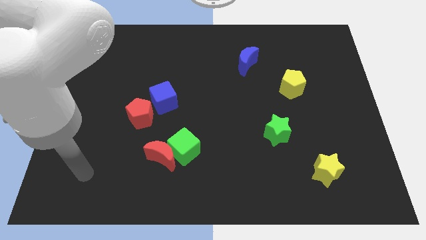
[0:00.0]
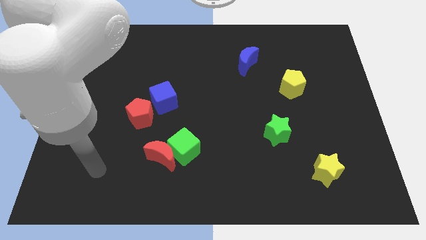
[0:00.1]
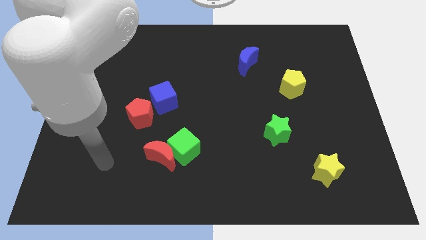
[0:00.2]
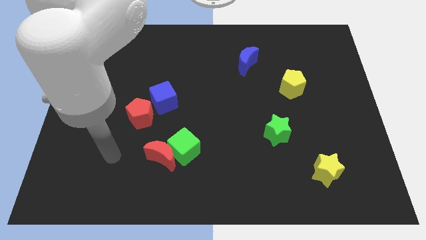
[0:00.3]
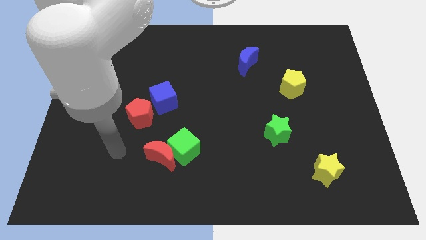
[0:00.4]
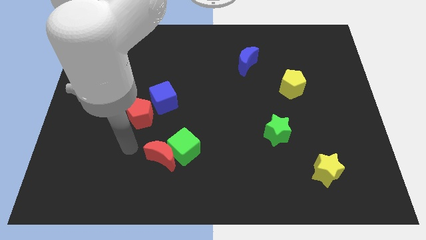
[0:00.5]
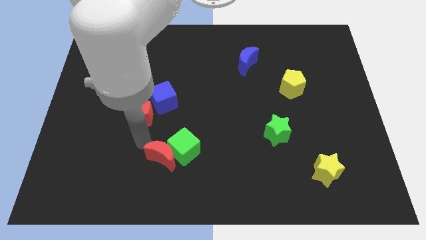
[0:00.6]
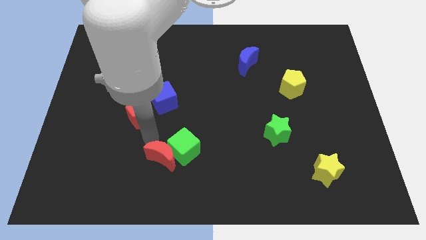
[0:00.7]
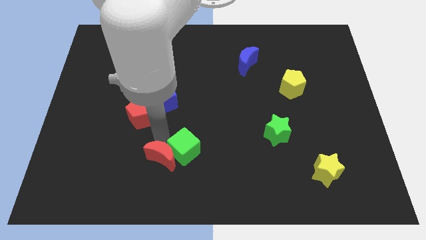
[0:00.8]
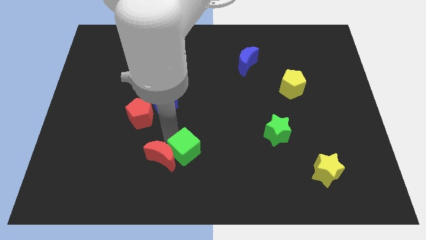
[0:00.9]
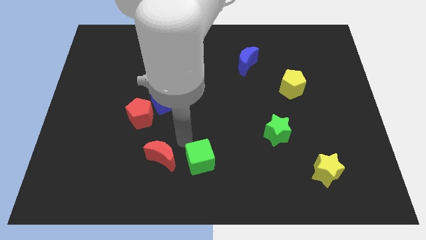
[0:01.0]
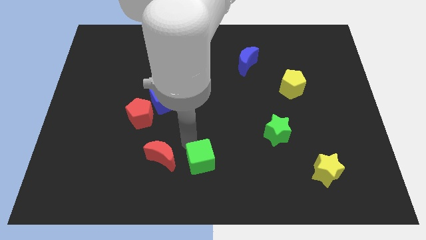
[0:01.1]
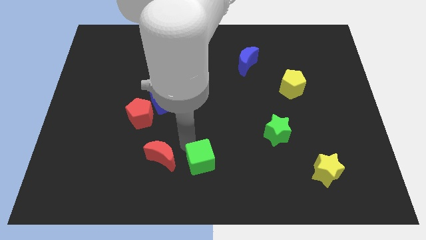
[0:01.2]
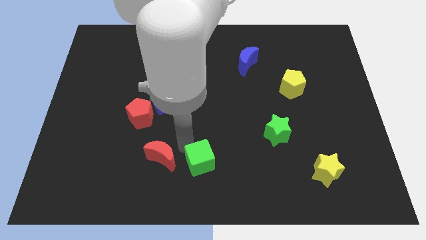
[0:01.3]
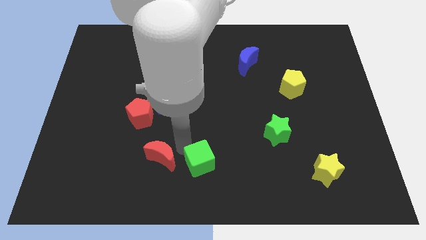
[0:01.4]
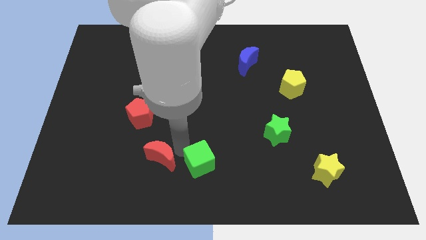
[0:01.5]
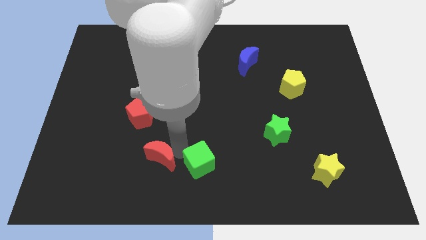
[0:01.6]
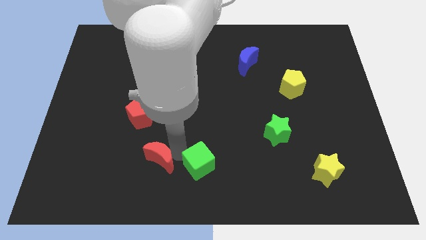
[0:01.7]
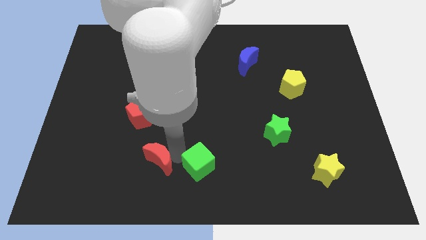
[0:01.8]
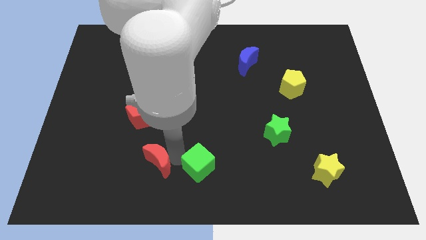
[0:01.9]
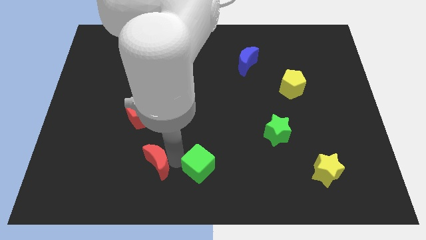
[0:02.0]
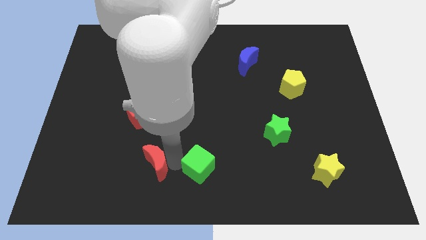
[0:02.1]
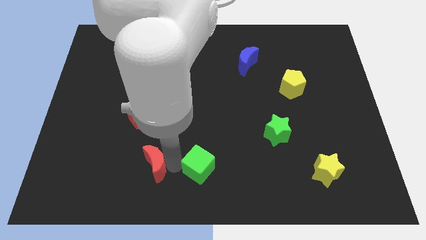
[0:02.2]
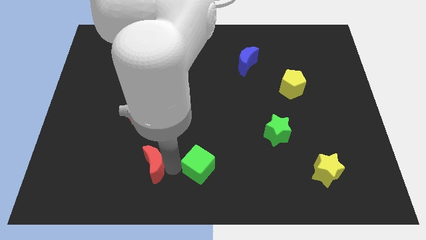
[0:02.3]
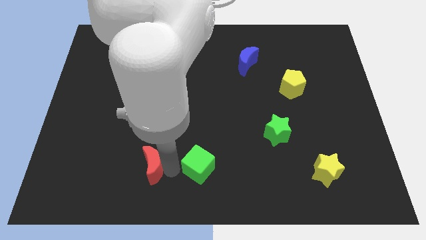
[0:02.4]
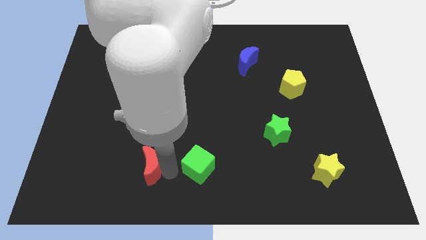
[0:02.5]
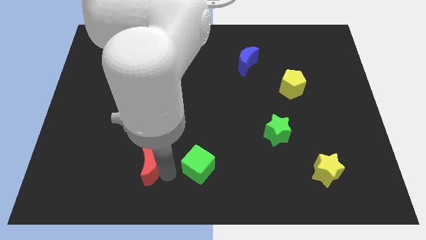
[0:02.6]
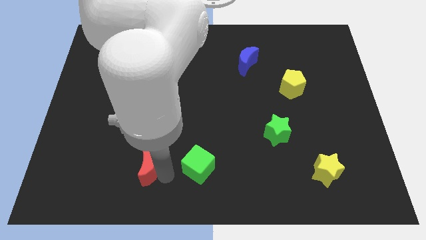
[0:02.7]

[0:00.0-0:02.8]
move the red moon away from the green cube

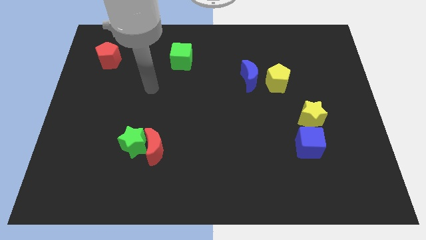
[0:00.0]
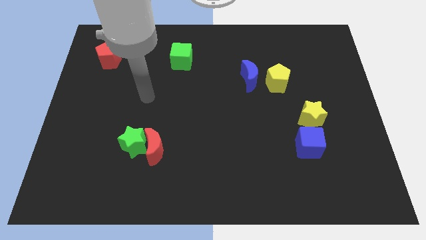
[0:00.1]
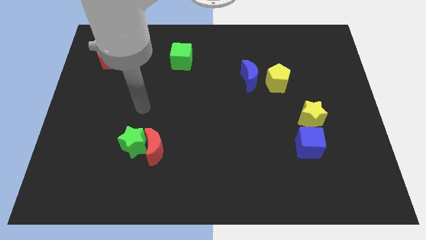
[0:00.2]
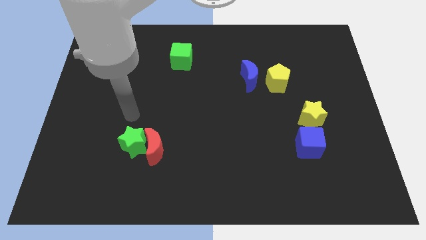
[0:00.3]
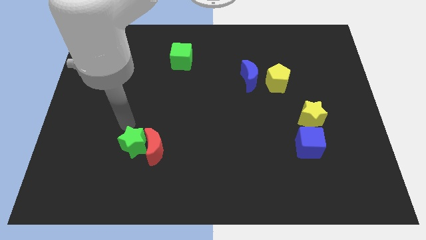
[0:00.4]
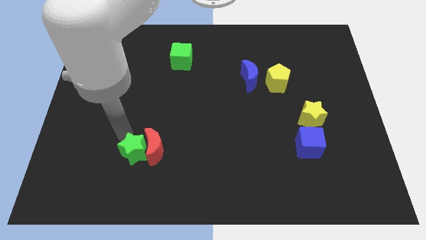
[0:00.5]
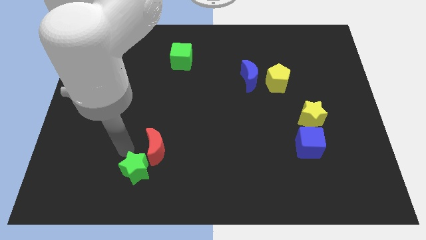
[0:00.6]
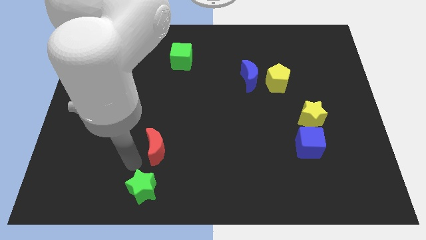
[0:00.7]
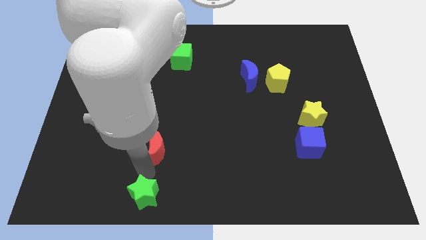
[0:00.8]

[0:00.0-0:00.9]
separate the red moon from the green star

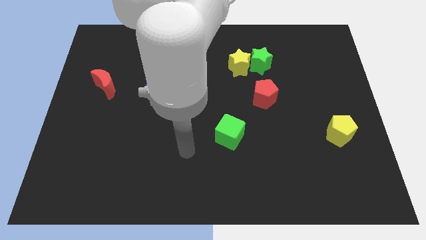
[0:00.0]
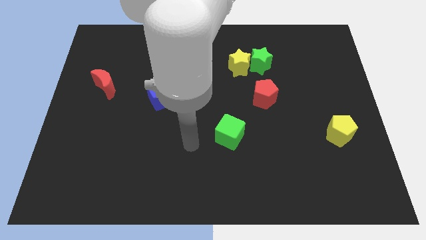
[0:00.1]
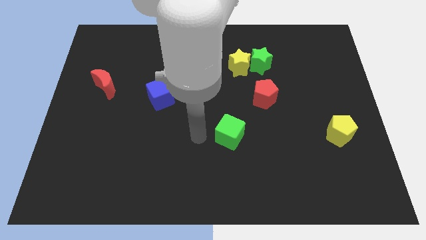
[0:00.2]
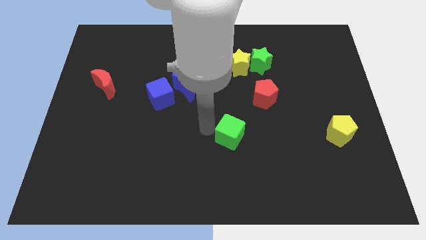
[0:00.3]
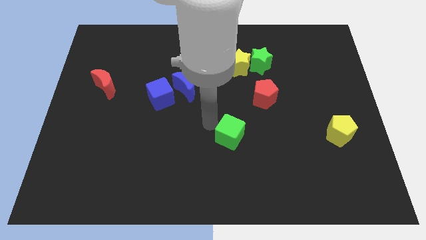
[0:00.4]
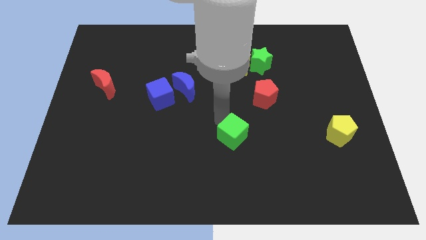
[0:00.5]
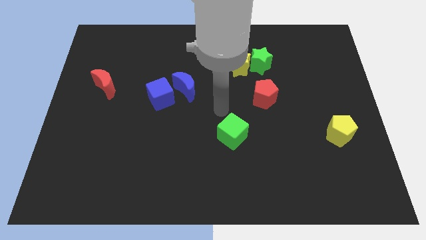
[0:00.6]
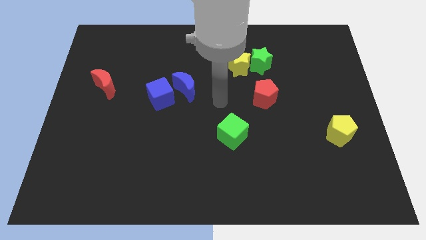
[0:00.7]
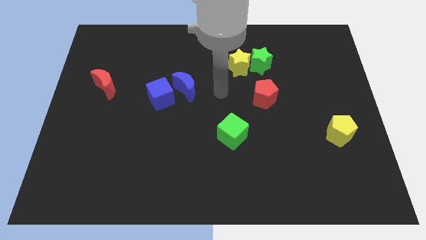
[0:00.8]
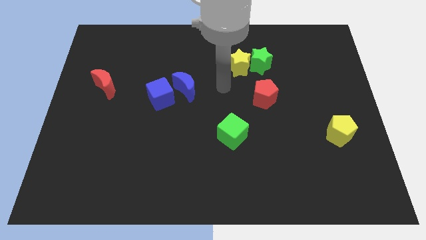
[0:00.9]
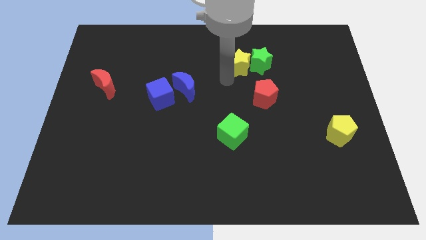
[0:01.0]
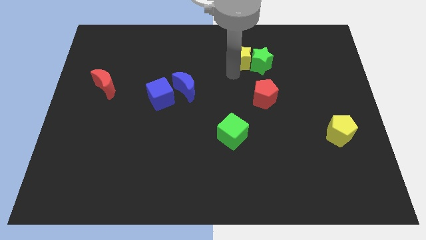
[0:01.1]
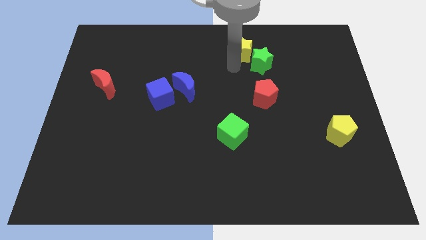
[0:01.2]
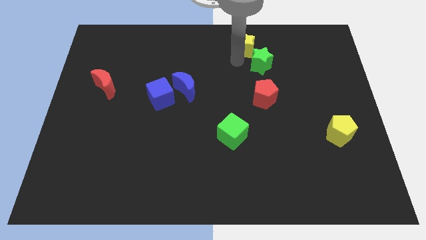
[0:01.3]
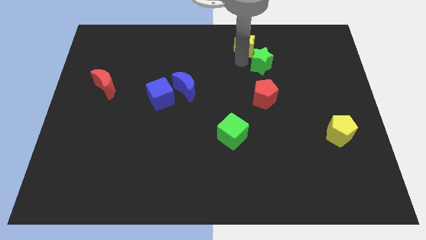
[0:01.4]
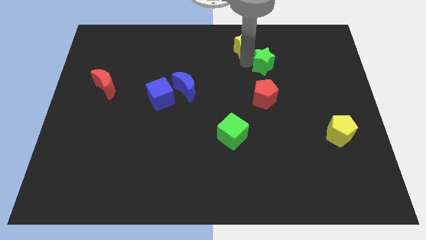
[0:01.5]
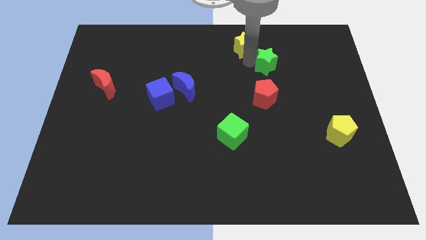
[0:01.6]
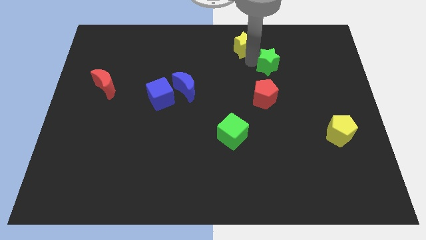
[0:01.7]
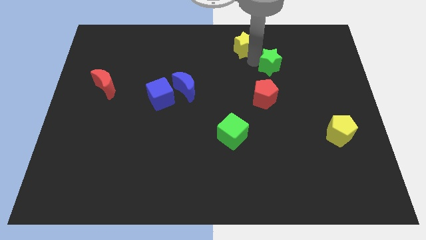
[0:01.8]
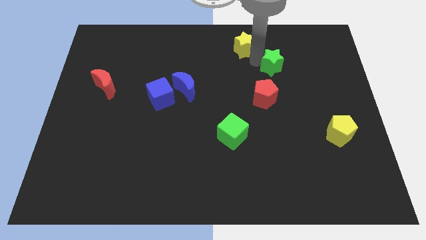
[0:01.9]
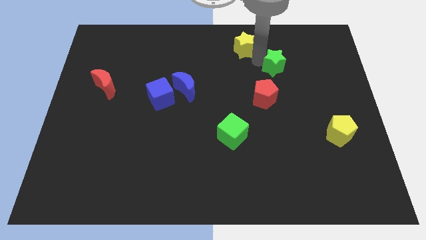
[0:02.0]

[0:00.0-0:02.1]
move the green star away from the yellow star

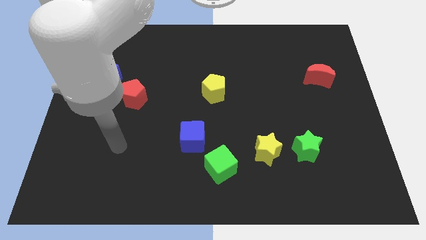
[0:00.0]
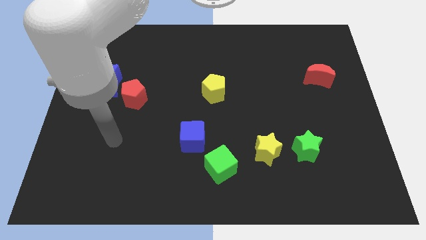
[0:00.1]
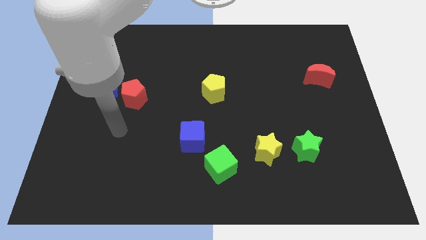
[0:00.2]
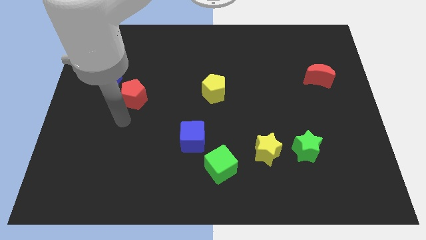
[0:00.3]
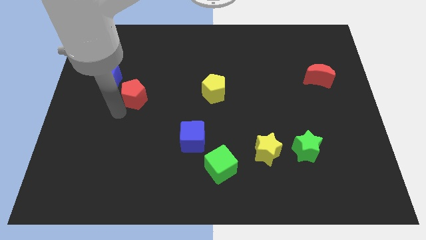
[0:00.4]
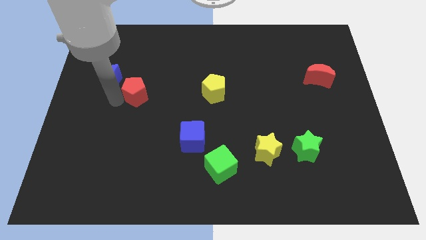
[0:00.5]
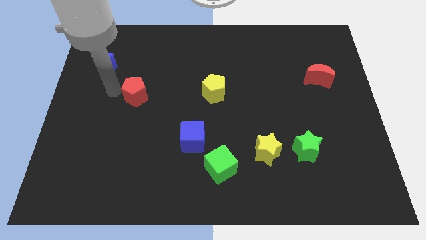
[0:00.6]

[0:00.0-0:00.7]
move the red pentagon away from the blue moon

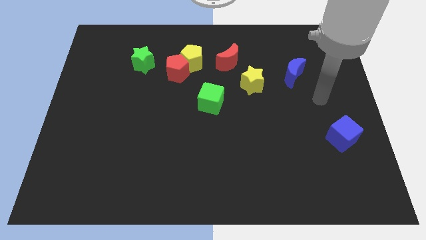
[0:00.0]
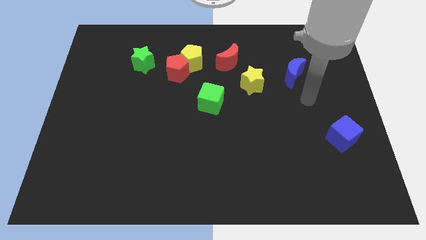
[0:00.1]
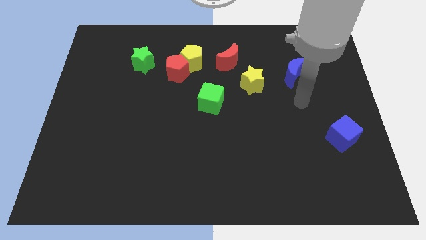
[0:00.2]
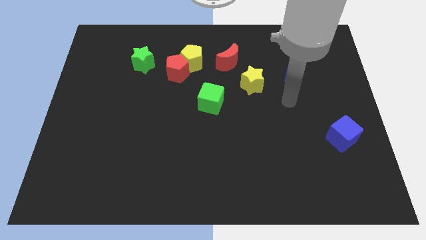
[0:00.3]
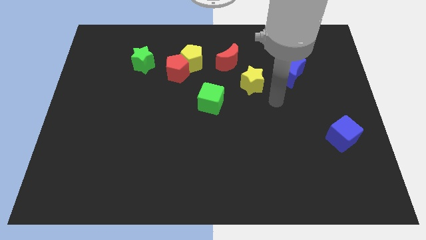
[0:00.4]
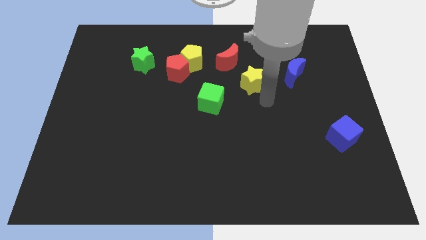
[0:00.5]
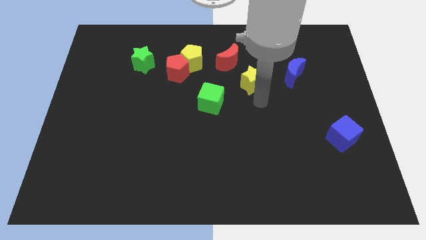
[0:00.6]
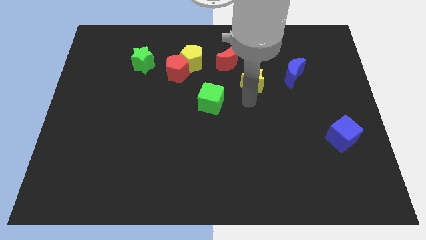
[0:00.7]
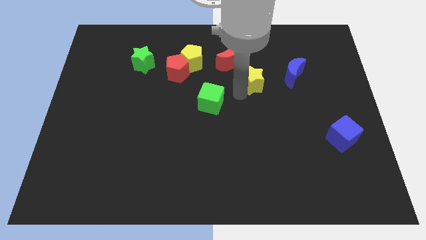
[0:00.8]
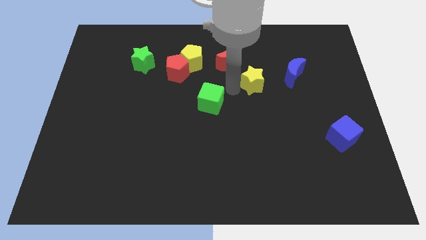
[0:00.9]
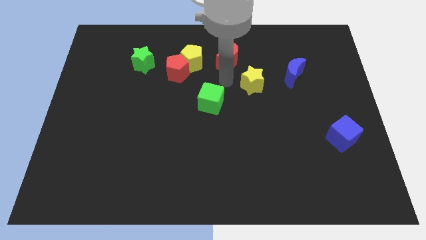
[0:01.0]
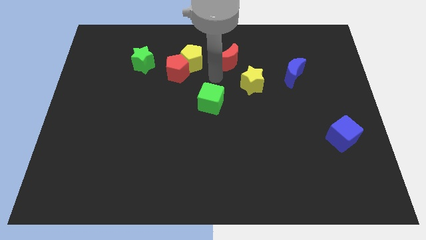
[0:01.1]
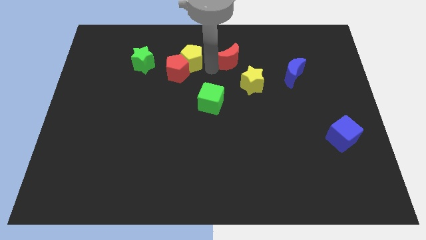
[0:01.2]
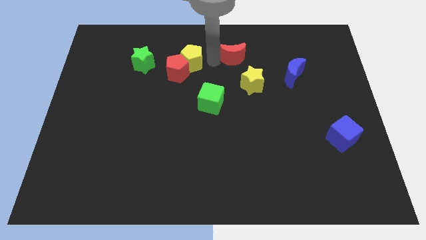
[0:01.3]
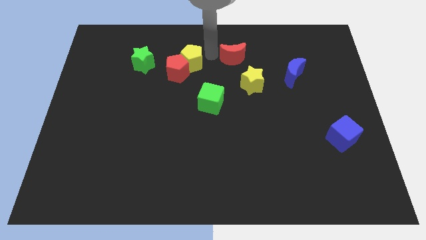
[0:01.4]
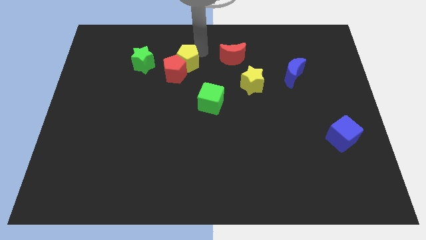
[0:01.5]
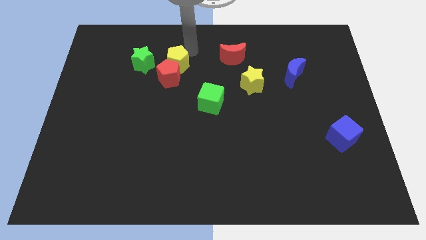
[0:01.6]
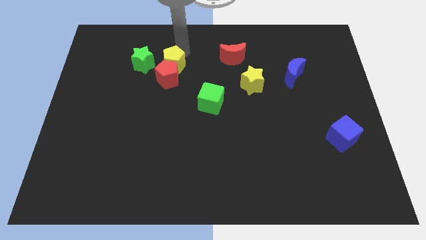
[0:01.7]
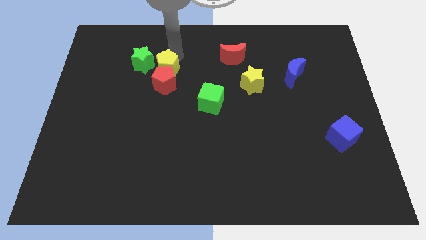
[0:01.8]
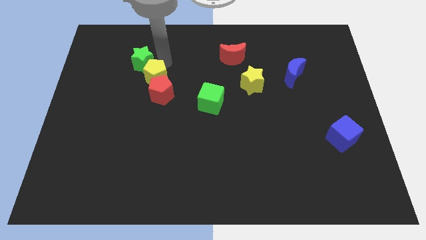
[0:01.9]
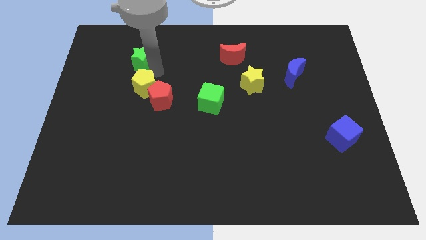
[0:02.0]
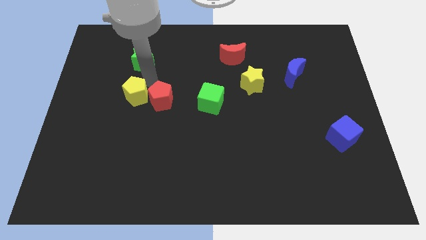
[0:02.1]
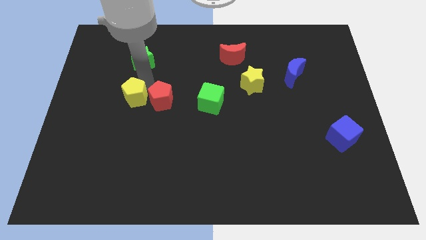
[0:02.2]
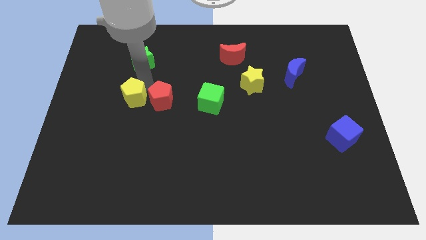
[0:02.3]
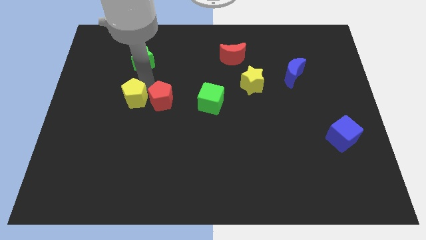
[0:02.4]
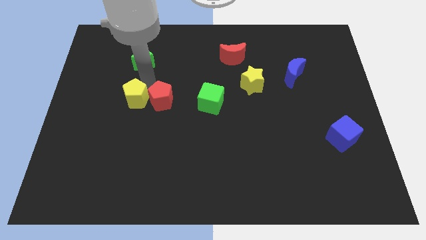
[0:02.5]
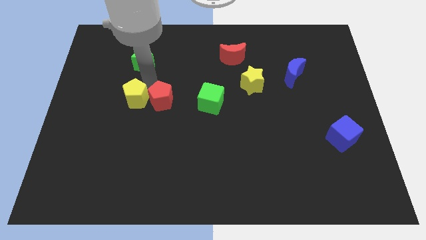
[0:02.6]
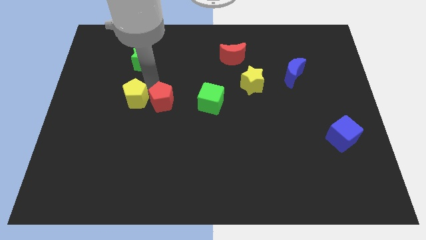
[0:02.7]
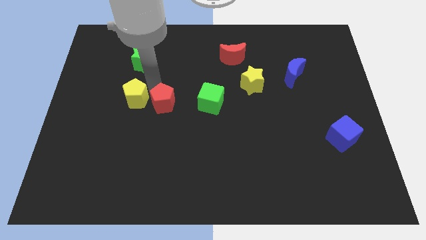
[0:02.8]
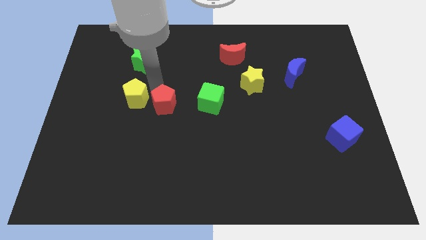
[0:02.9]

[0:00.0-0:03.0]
pull the red pentagon apart from the yellow pentagon and green star
